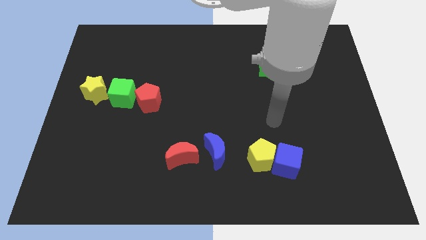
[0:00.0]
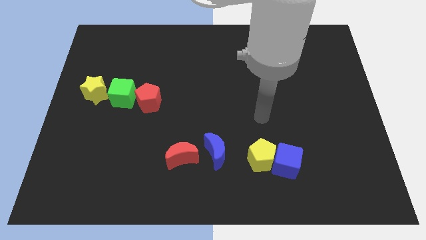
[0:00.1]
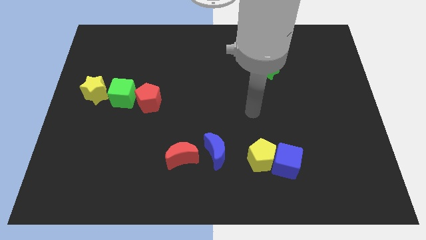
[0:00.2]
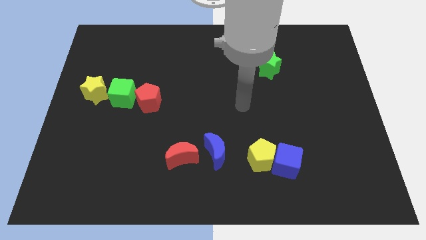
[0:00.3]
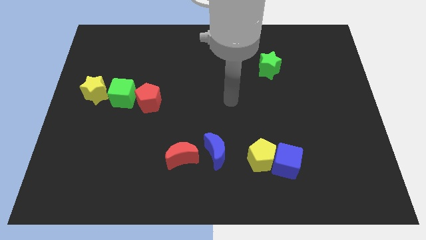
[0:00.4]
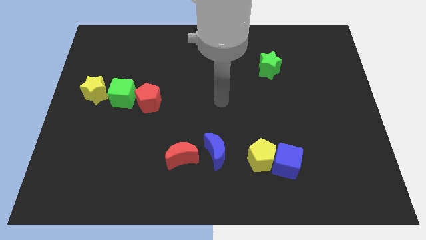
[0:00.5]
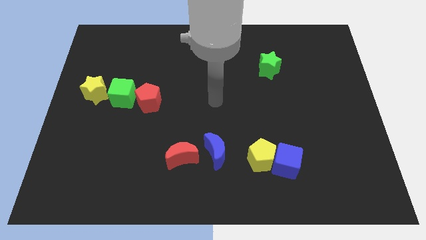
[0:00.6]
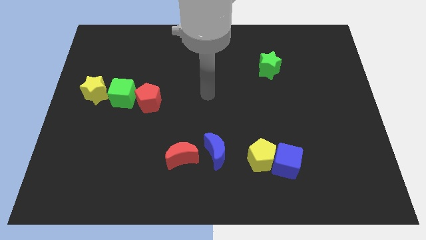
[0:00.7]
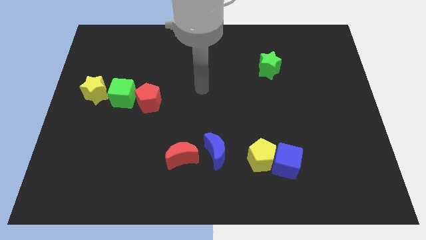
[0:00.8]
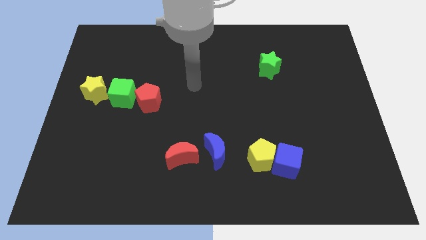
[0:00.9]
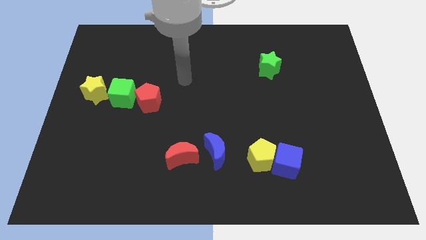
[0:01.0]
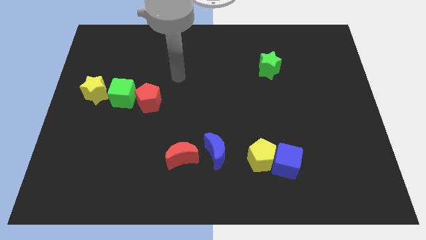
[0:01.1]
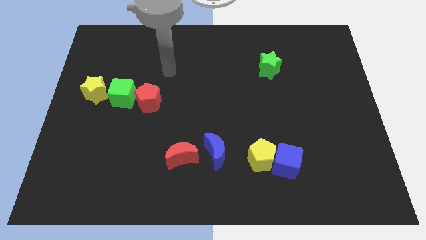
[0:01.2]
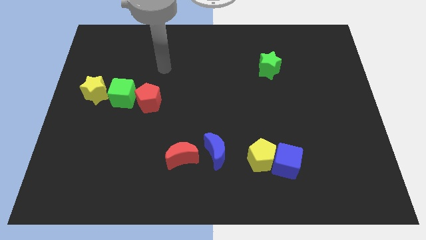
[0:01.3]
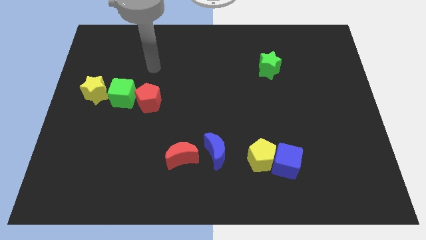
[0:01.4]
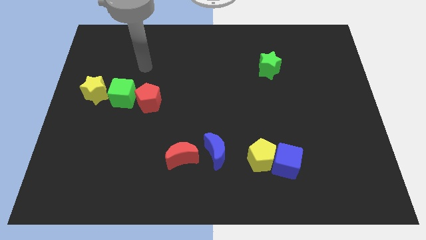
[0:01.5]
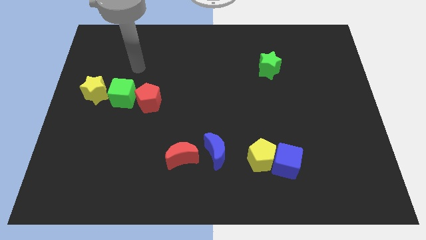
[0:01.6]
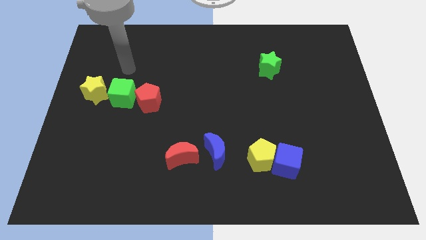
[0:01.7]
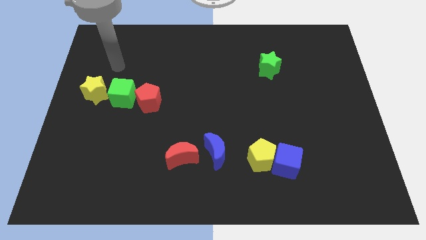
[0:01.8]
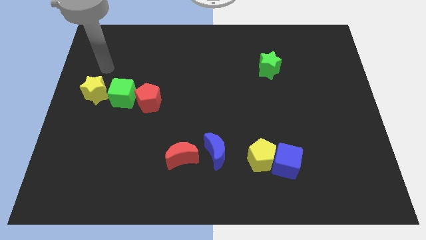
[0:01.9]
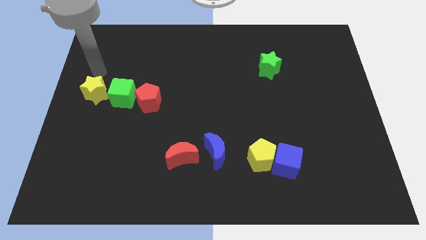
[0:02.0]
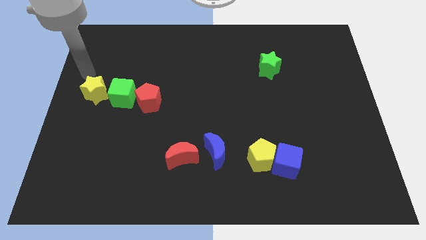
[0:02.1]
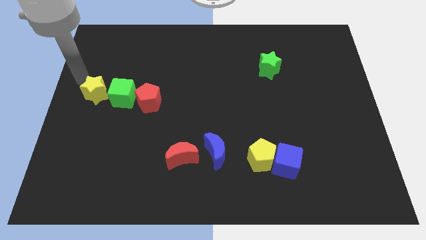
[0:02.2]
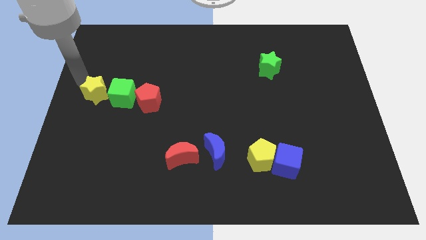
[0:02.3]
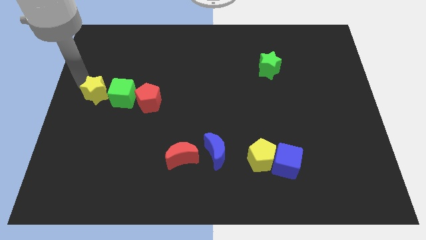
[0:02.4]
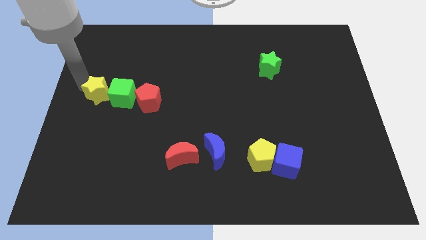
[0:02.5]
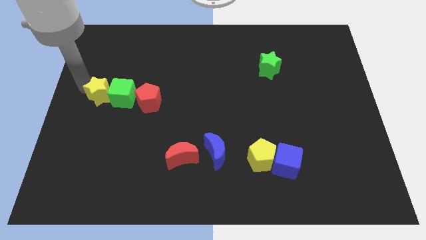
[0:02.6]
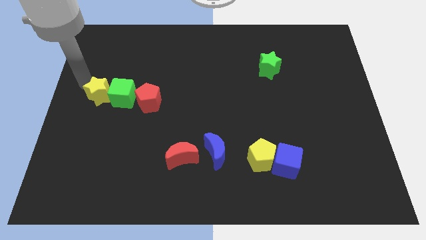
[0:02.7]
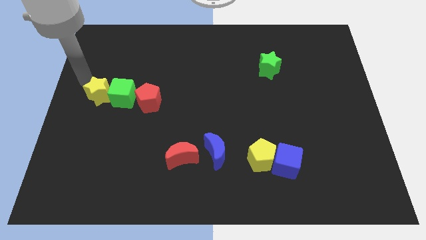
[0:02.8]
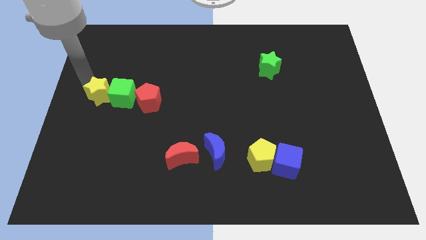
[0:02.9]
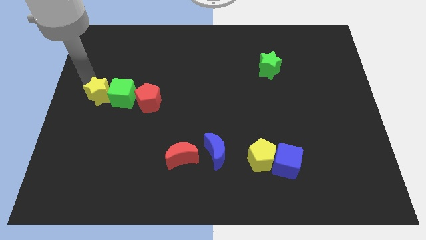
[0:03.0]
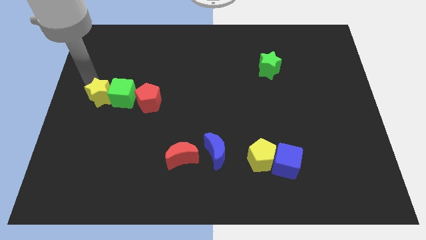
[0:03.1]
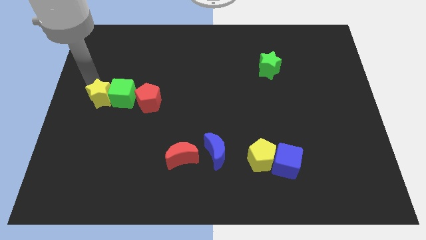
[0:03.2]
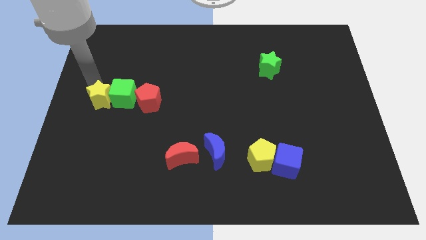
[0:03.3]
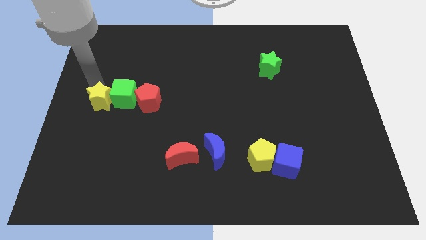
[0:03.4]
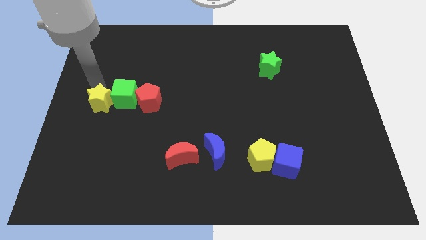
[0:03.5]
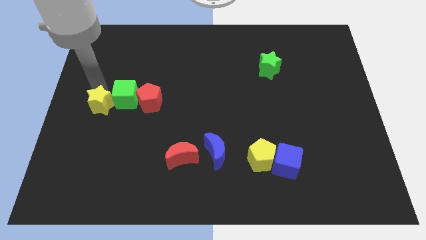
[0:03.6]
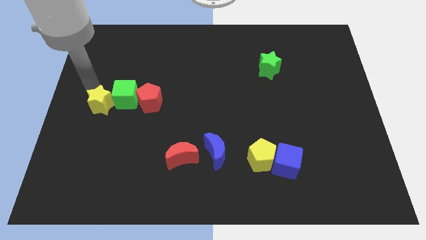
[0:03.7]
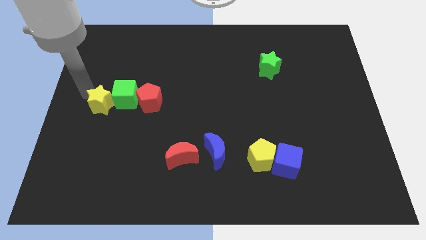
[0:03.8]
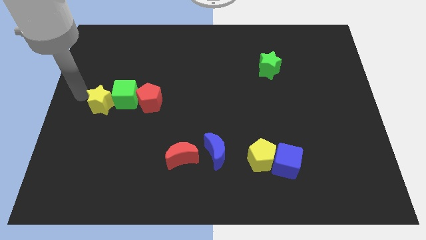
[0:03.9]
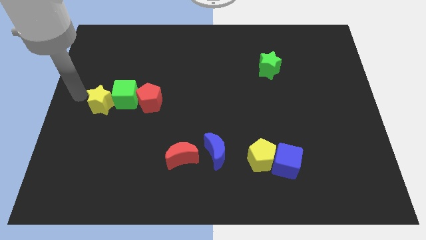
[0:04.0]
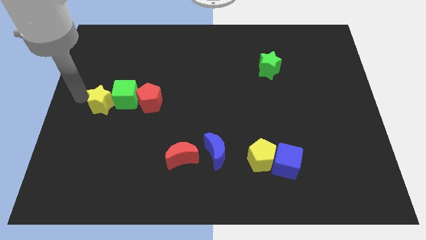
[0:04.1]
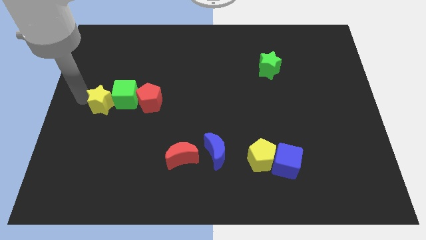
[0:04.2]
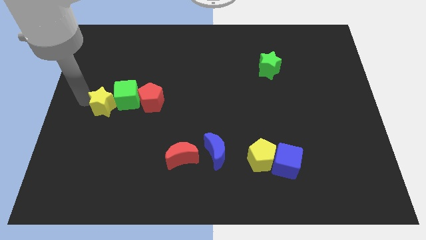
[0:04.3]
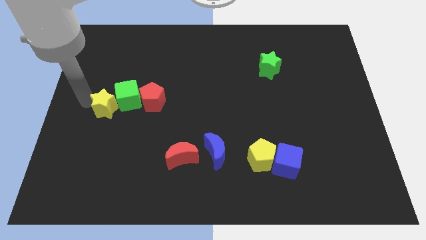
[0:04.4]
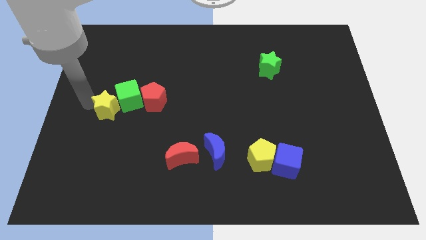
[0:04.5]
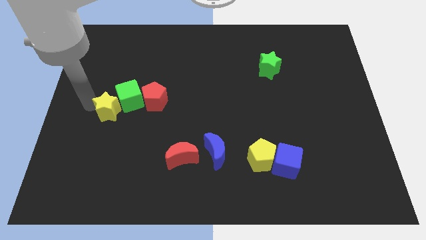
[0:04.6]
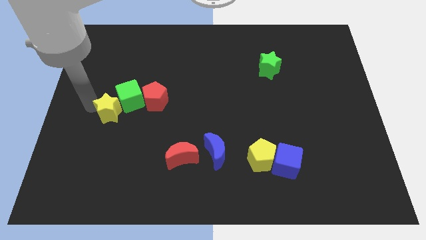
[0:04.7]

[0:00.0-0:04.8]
slightly move the yellow star downwards and to the right

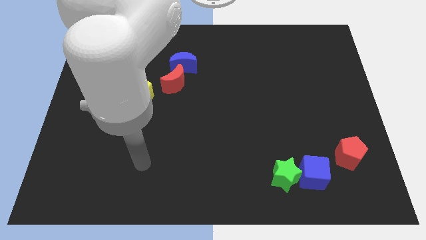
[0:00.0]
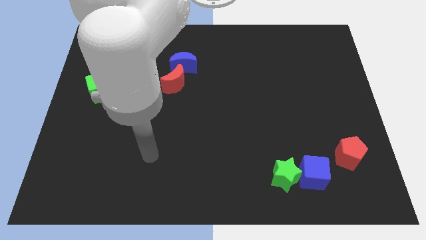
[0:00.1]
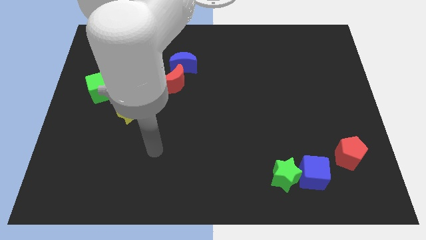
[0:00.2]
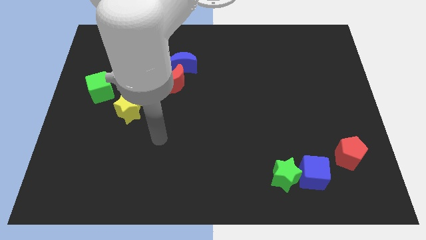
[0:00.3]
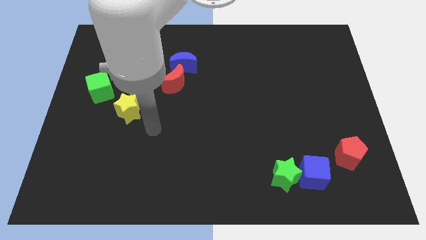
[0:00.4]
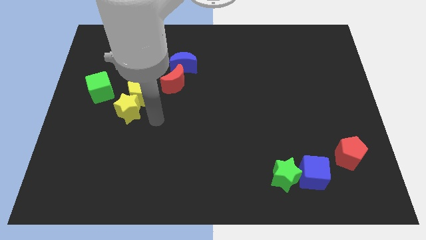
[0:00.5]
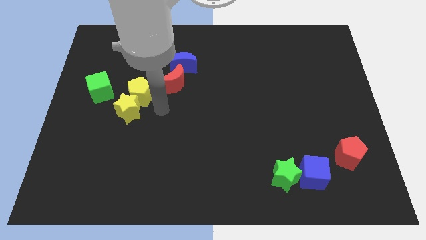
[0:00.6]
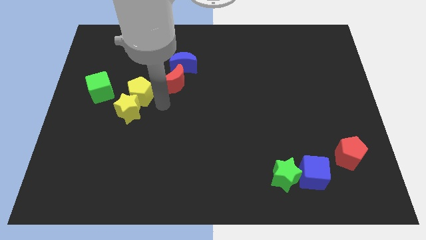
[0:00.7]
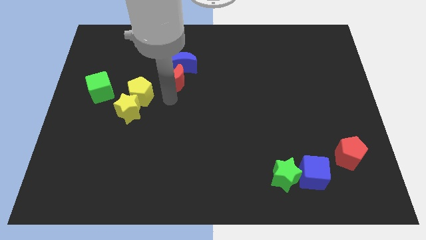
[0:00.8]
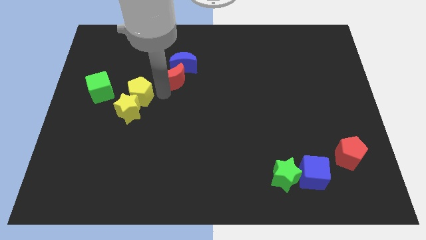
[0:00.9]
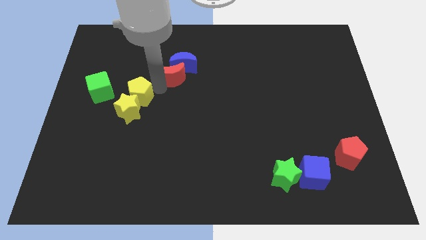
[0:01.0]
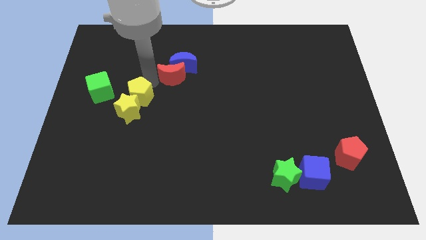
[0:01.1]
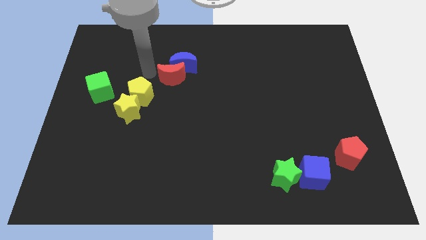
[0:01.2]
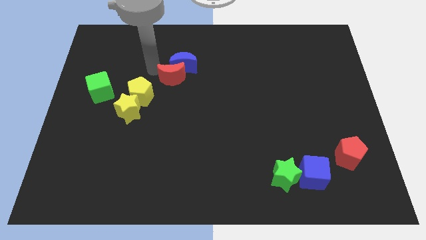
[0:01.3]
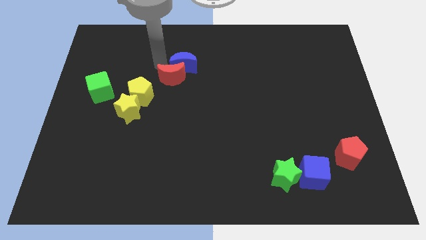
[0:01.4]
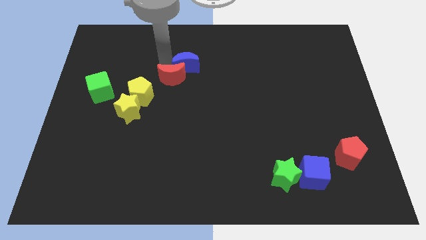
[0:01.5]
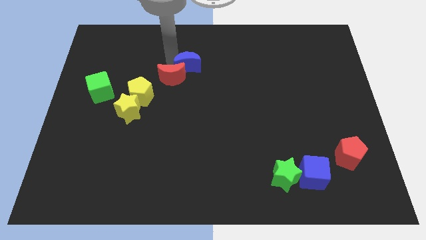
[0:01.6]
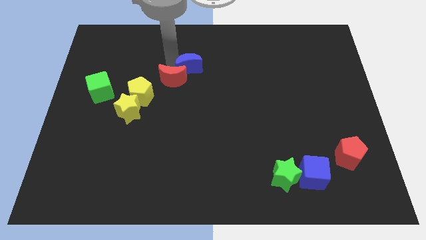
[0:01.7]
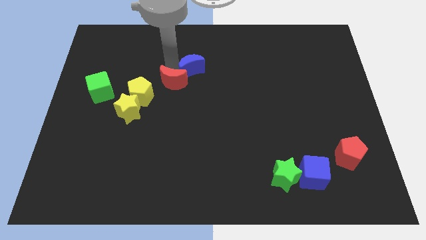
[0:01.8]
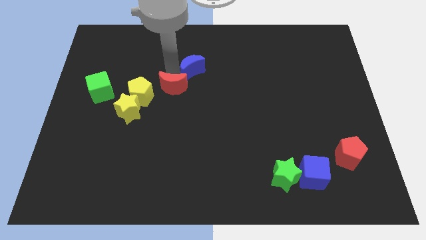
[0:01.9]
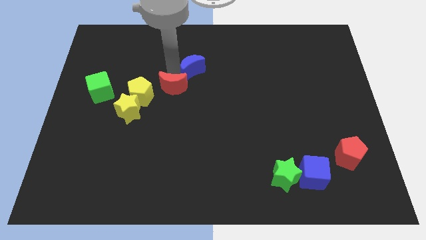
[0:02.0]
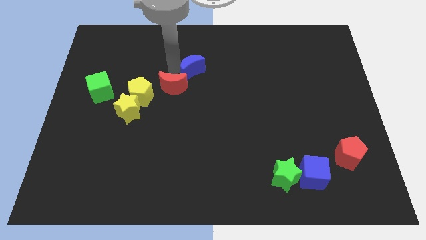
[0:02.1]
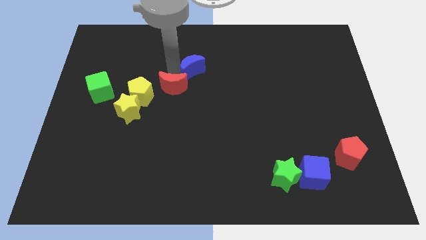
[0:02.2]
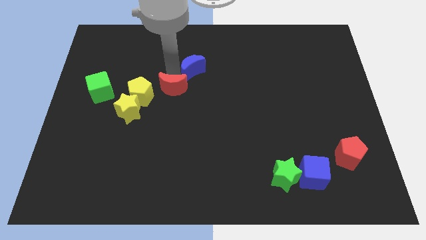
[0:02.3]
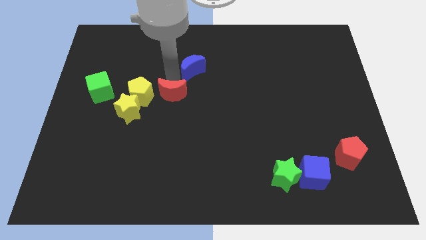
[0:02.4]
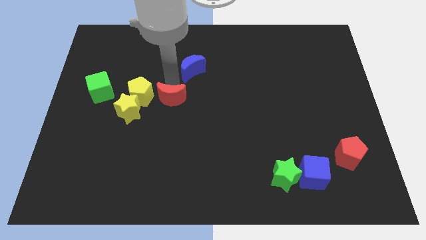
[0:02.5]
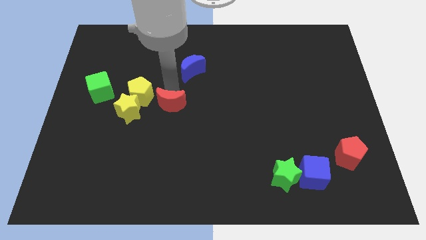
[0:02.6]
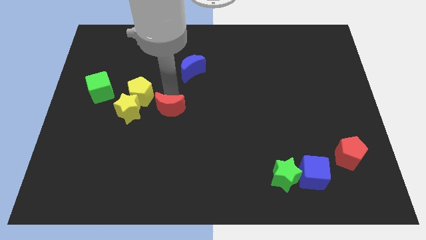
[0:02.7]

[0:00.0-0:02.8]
slide the red moon down somewhat
